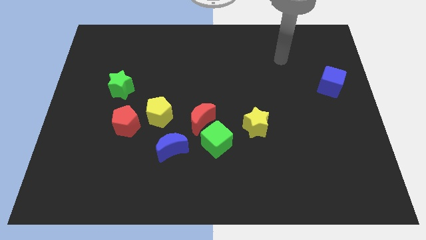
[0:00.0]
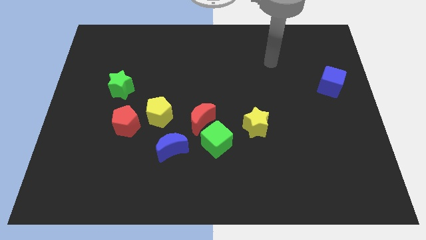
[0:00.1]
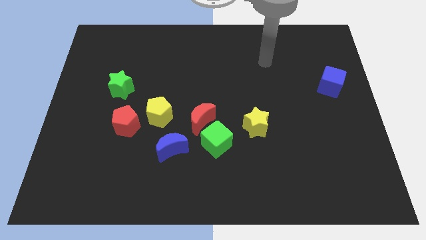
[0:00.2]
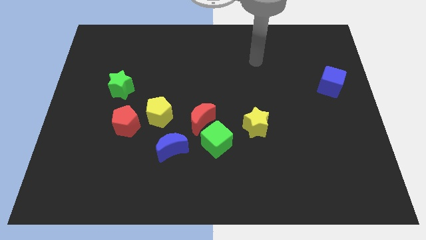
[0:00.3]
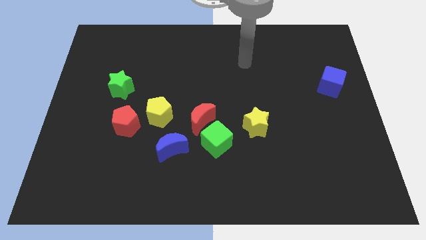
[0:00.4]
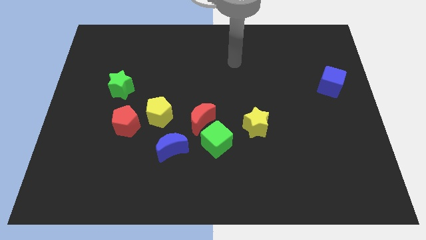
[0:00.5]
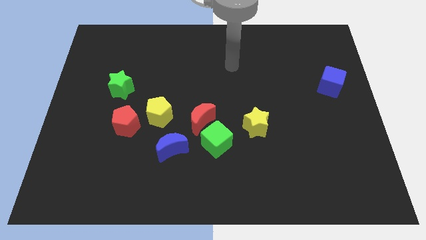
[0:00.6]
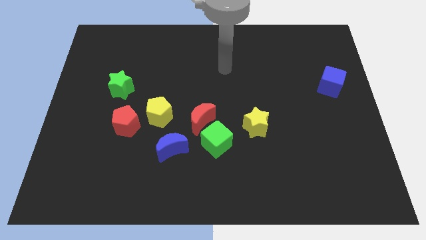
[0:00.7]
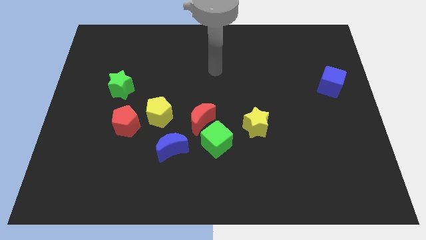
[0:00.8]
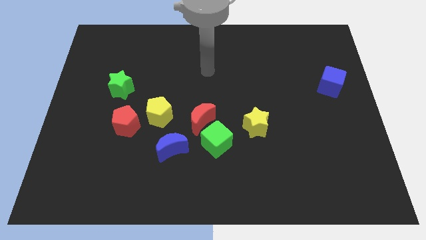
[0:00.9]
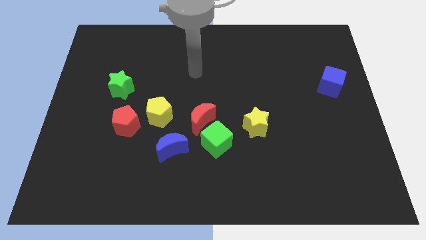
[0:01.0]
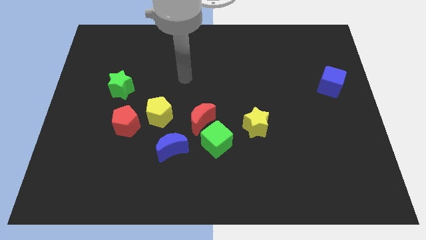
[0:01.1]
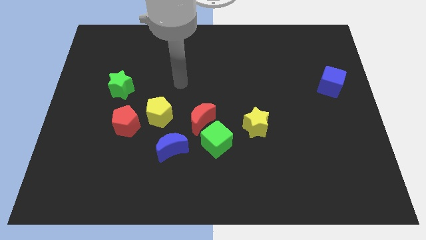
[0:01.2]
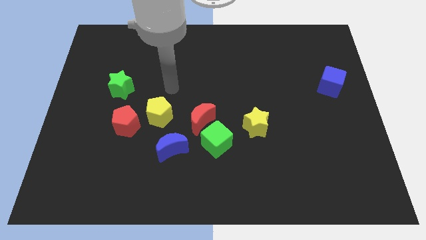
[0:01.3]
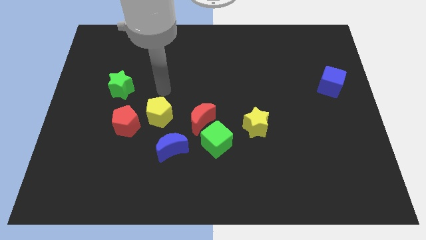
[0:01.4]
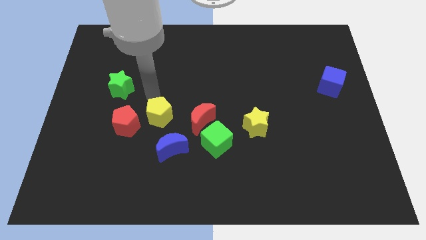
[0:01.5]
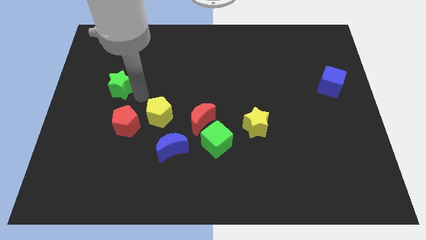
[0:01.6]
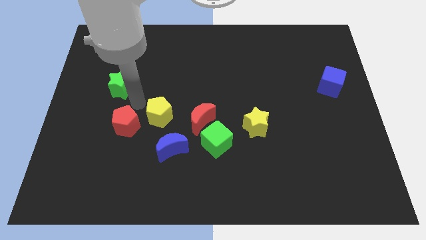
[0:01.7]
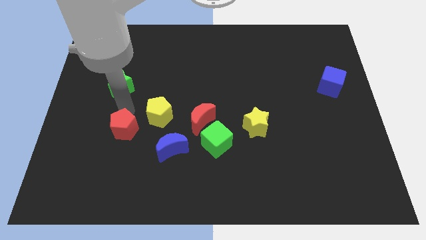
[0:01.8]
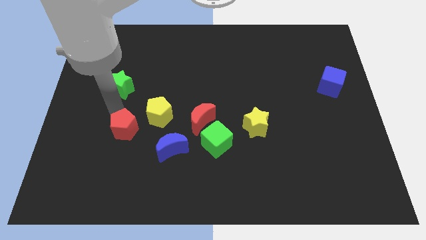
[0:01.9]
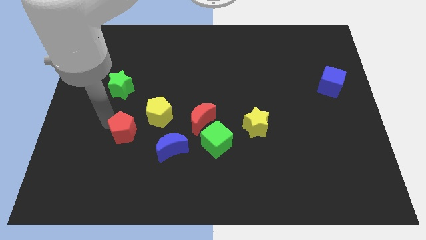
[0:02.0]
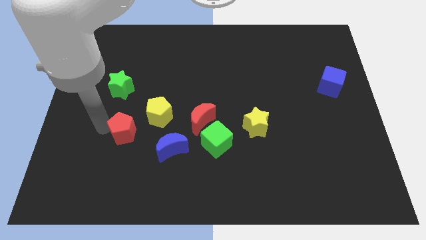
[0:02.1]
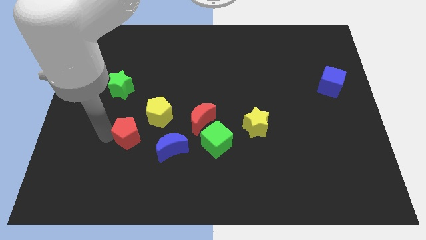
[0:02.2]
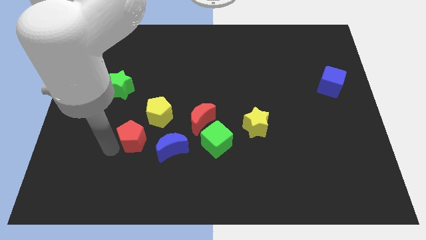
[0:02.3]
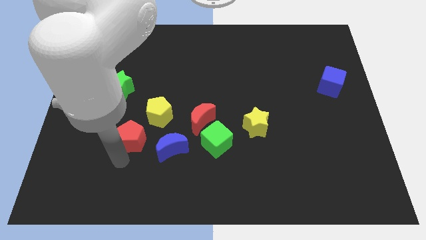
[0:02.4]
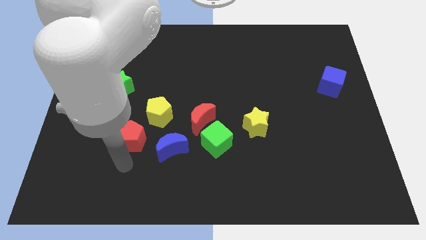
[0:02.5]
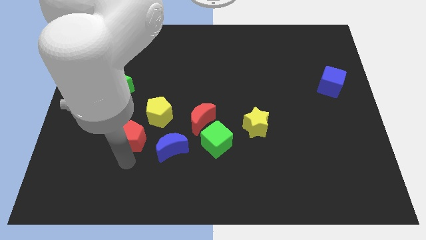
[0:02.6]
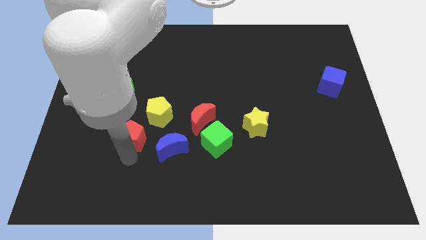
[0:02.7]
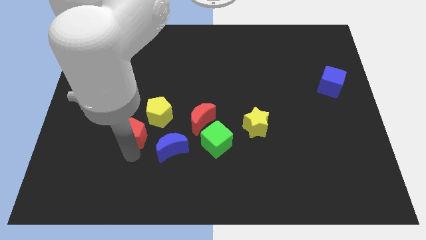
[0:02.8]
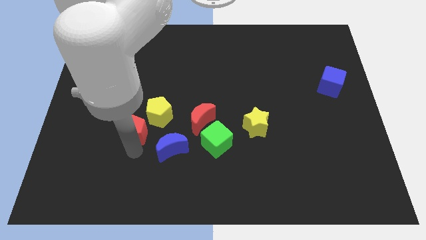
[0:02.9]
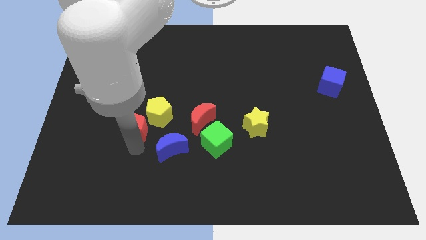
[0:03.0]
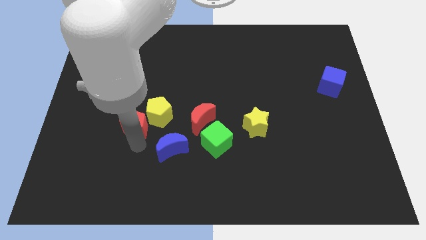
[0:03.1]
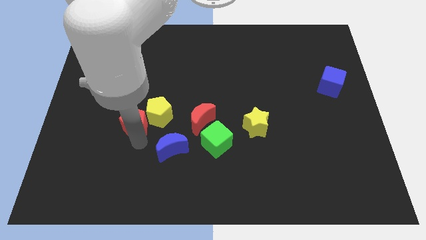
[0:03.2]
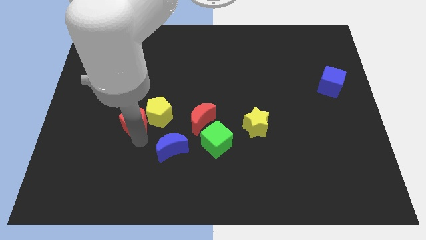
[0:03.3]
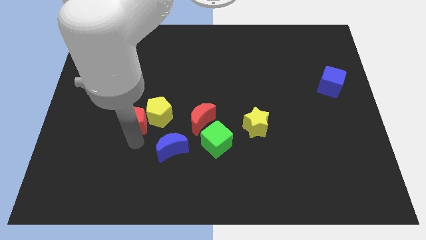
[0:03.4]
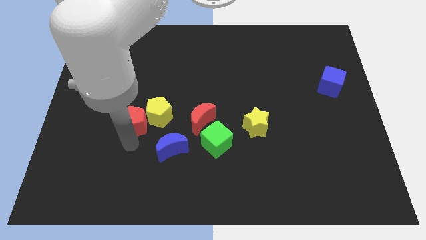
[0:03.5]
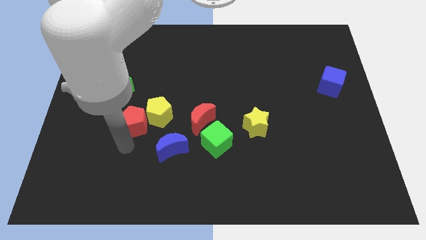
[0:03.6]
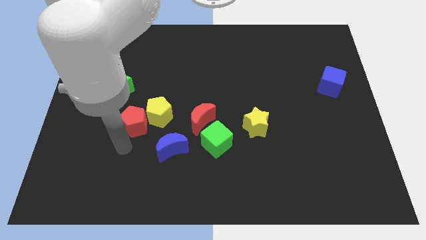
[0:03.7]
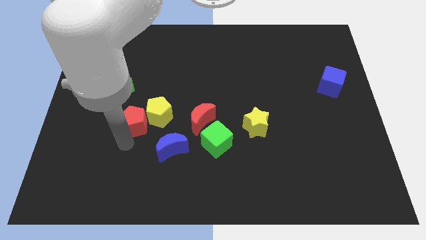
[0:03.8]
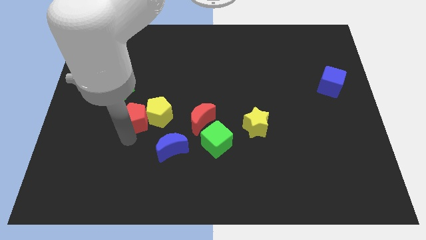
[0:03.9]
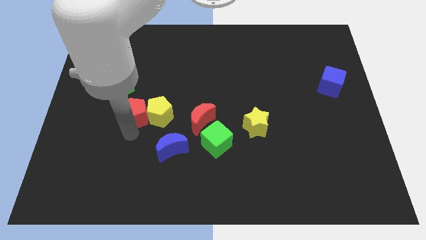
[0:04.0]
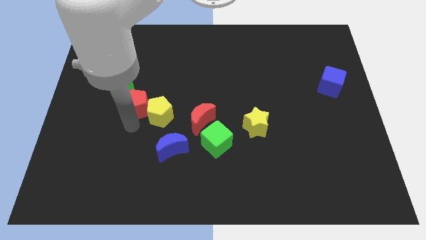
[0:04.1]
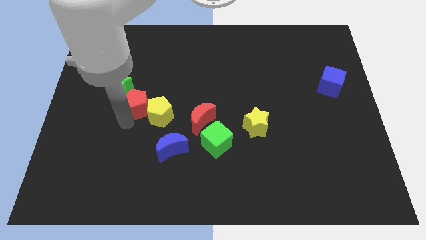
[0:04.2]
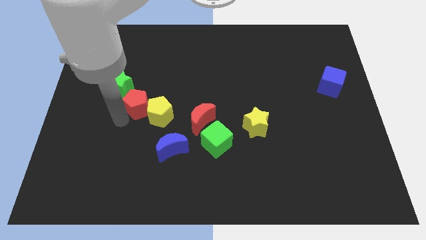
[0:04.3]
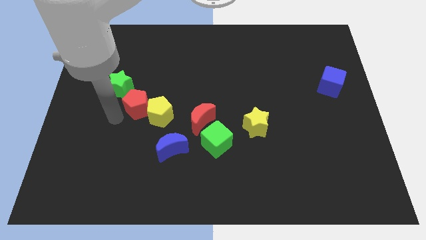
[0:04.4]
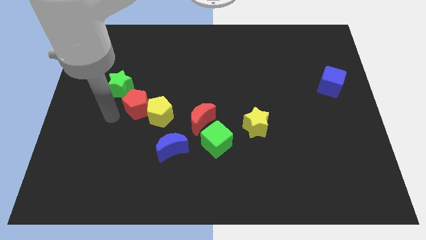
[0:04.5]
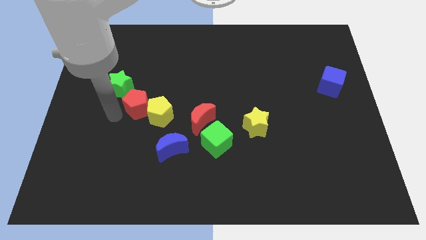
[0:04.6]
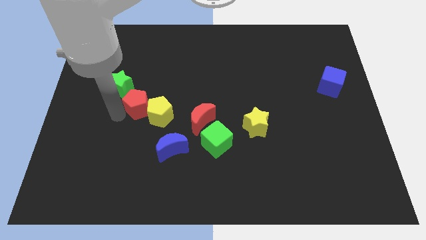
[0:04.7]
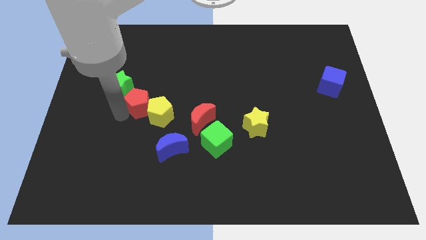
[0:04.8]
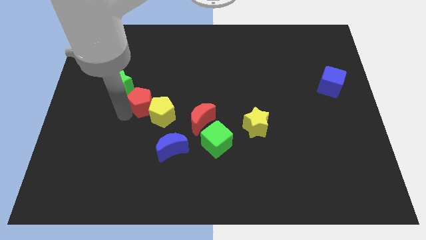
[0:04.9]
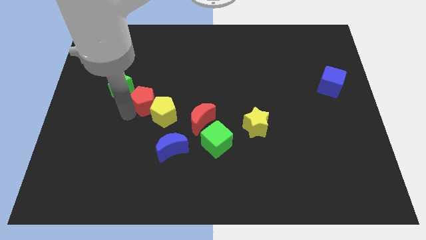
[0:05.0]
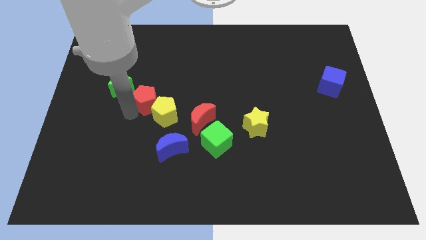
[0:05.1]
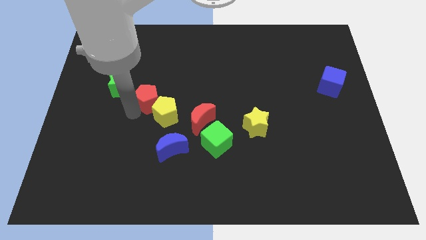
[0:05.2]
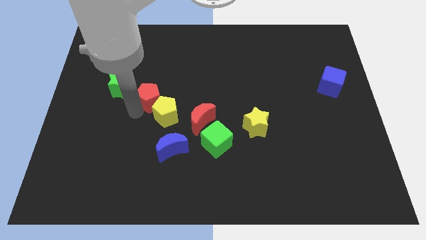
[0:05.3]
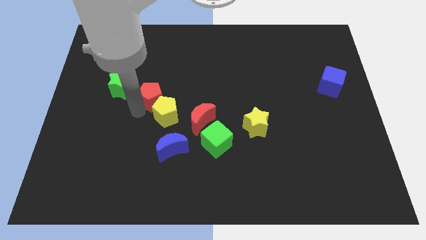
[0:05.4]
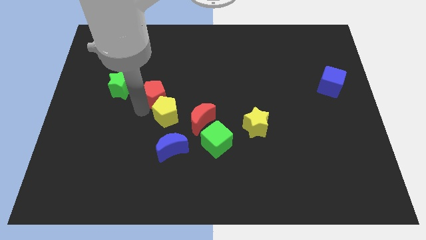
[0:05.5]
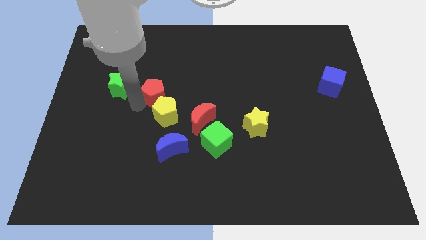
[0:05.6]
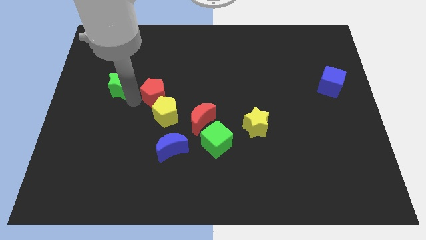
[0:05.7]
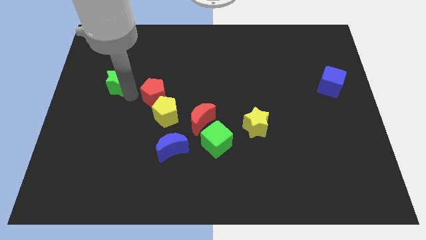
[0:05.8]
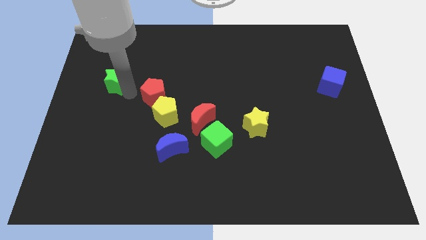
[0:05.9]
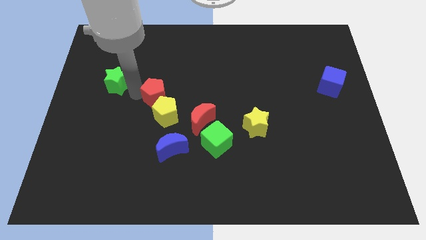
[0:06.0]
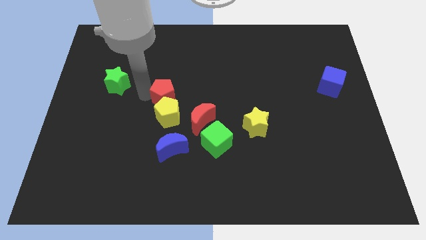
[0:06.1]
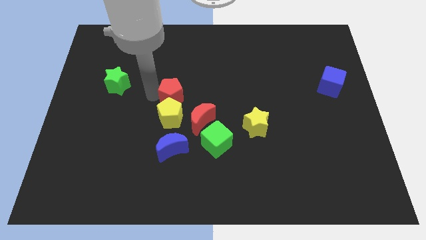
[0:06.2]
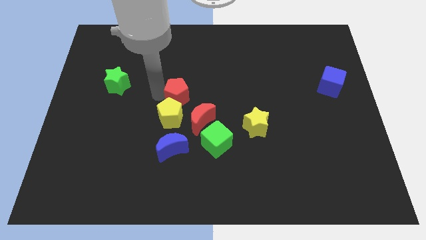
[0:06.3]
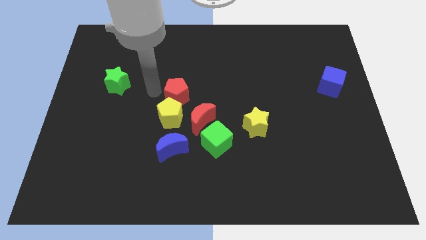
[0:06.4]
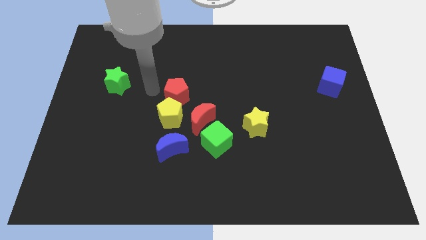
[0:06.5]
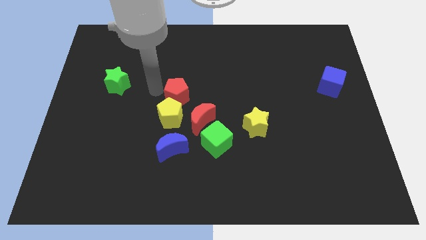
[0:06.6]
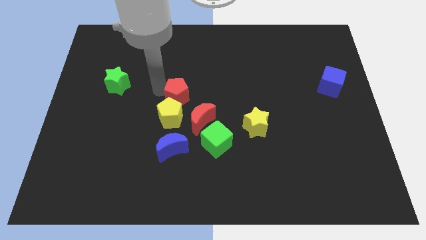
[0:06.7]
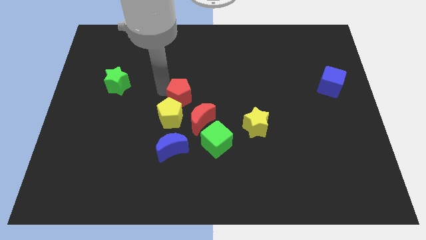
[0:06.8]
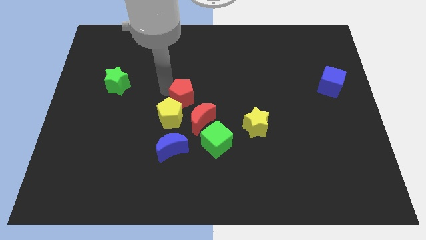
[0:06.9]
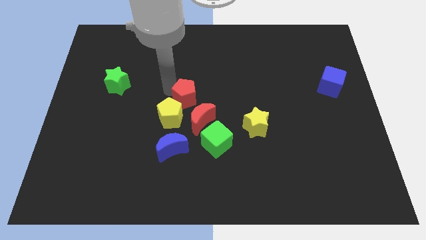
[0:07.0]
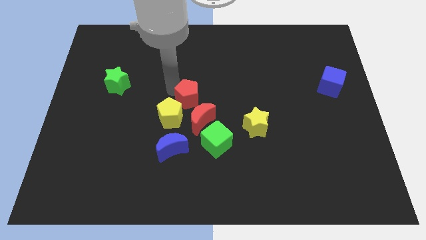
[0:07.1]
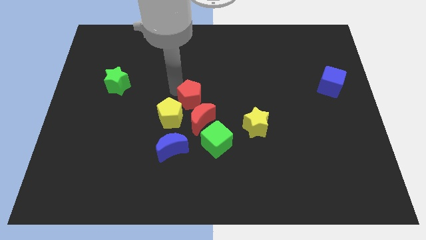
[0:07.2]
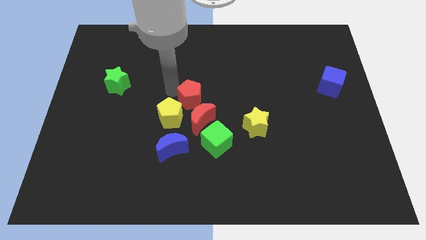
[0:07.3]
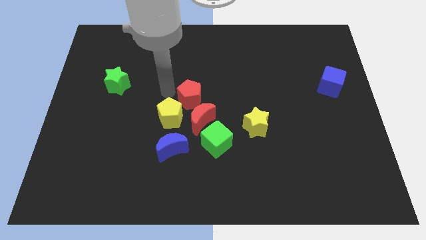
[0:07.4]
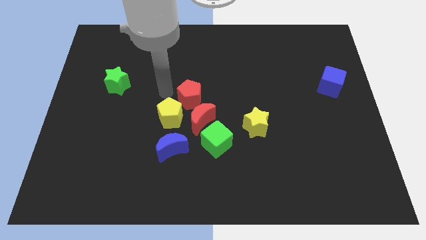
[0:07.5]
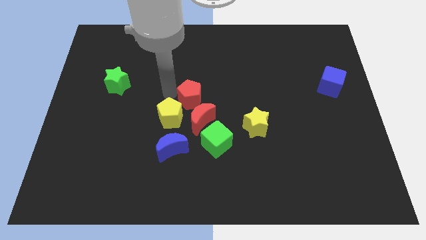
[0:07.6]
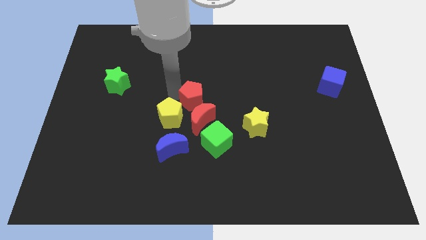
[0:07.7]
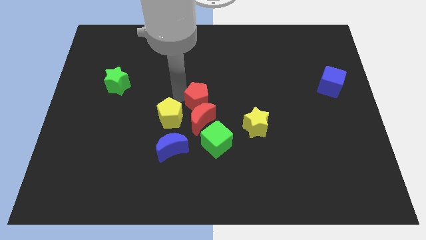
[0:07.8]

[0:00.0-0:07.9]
slide the red pentagon right of the yellow pentagon
